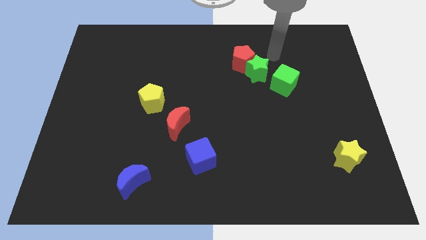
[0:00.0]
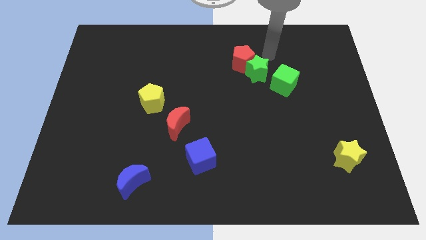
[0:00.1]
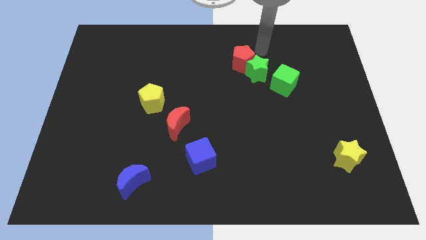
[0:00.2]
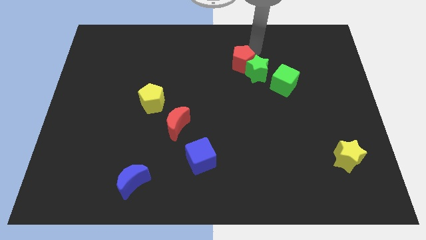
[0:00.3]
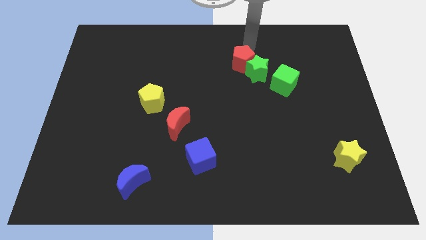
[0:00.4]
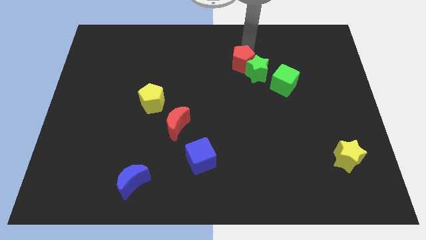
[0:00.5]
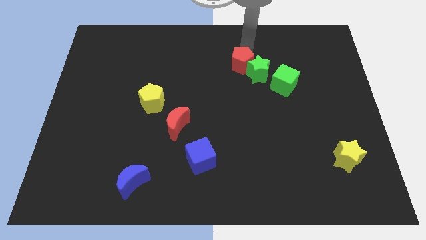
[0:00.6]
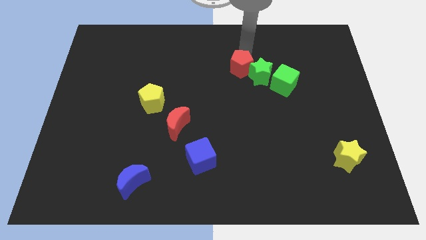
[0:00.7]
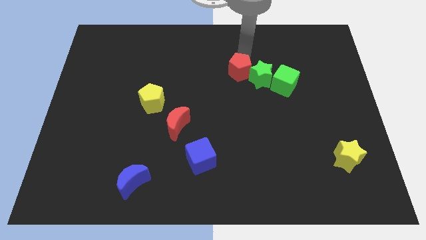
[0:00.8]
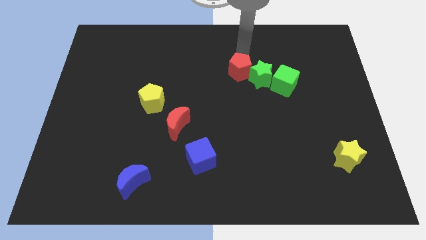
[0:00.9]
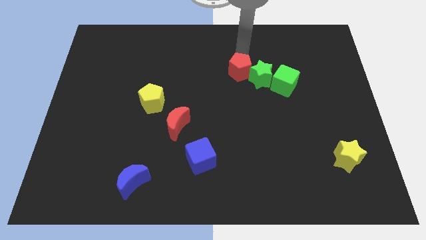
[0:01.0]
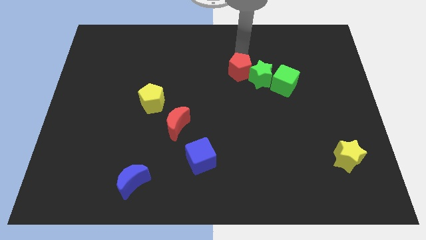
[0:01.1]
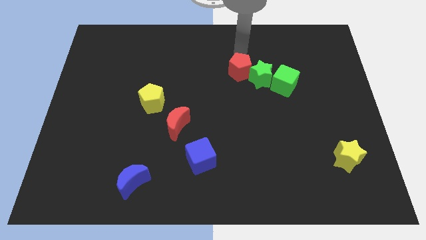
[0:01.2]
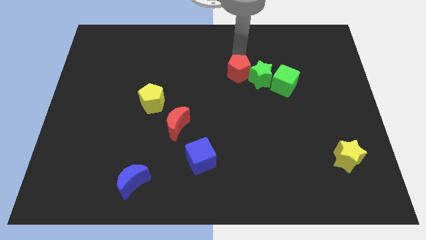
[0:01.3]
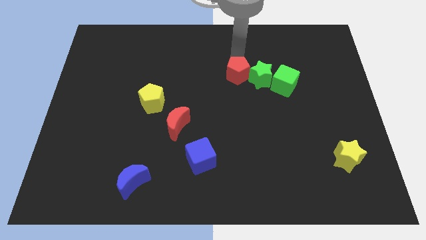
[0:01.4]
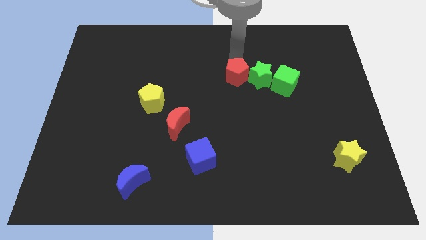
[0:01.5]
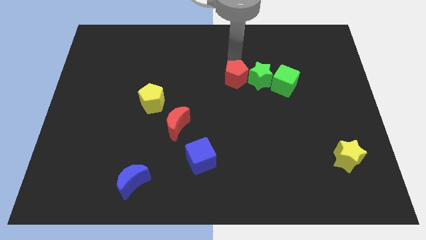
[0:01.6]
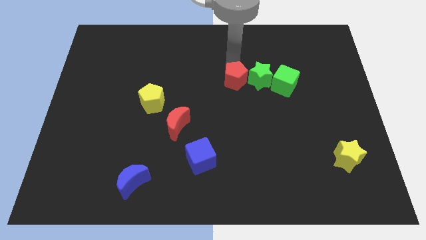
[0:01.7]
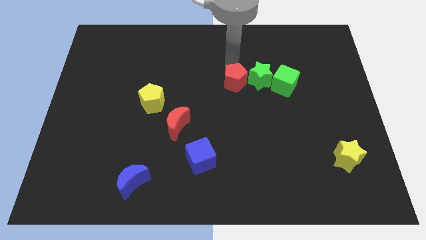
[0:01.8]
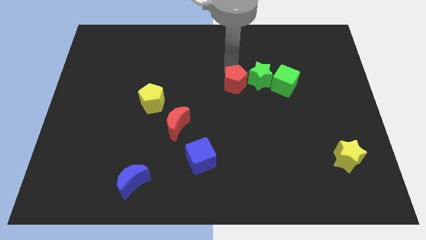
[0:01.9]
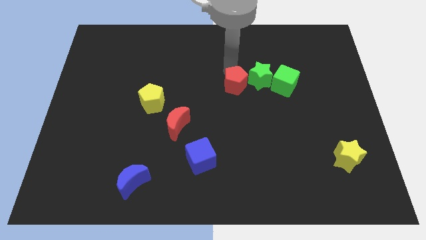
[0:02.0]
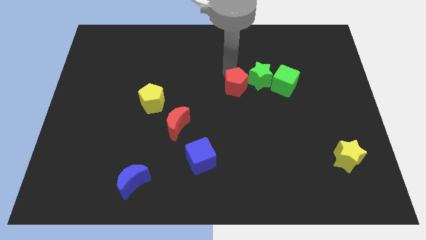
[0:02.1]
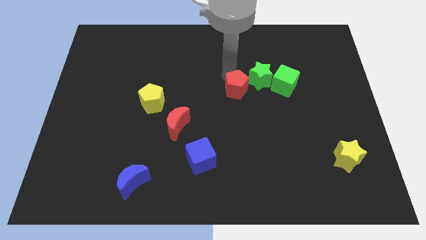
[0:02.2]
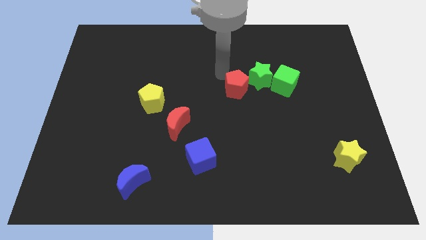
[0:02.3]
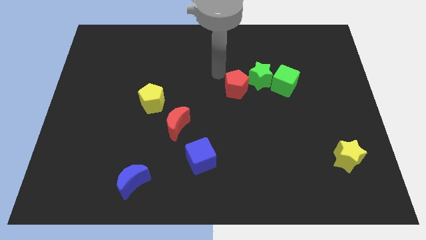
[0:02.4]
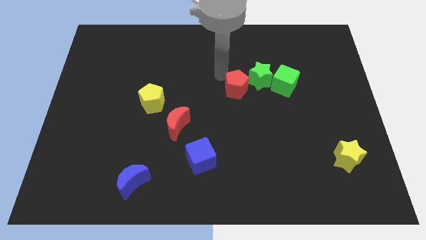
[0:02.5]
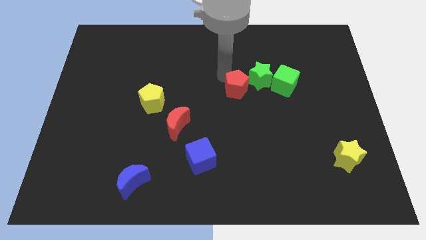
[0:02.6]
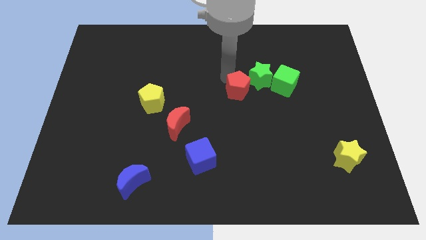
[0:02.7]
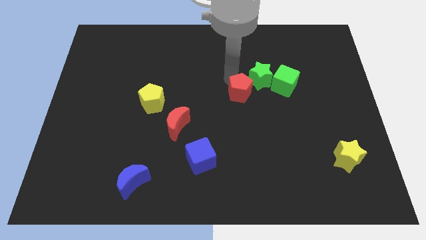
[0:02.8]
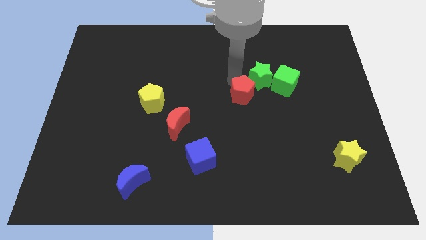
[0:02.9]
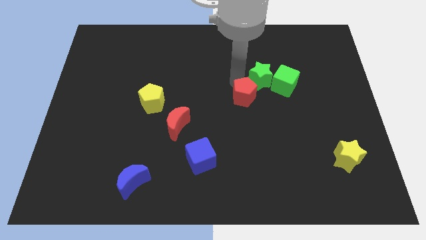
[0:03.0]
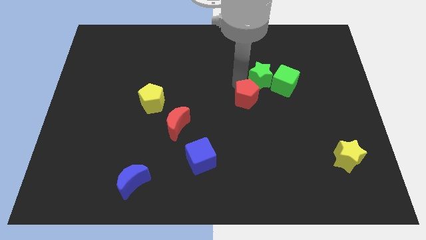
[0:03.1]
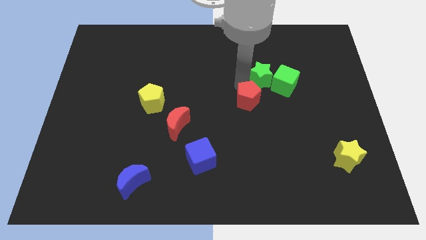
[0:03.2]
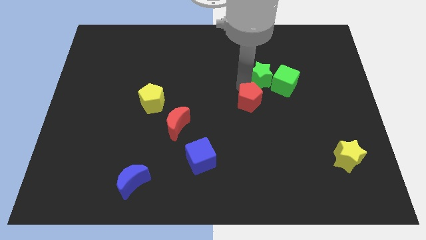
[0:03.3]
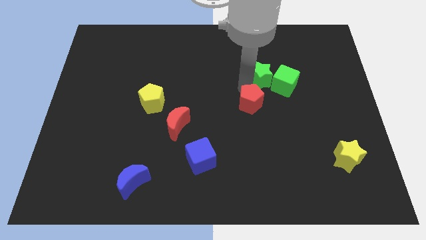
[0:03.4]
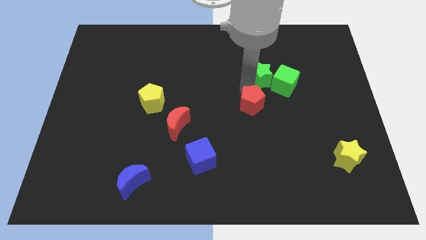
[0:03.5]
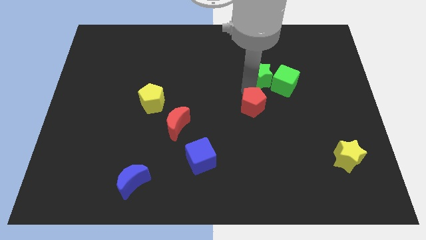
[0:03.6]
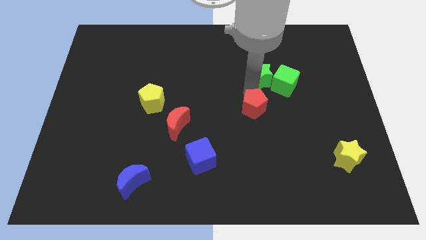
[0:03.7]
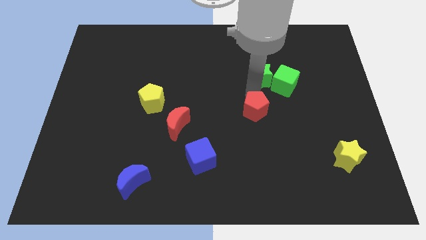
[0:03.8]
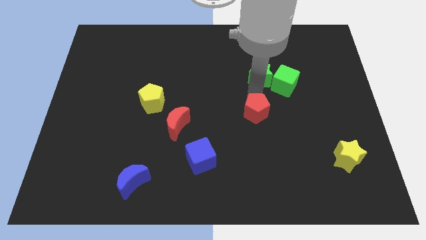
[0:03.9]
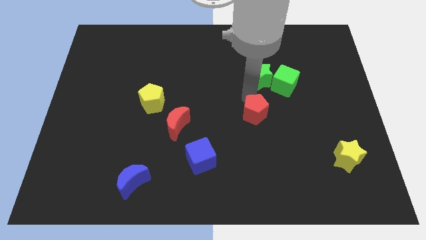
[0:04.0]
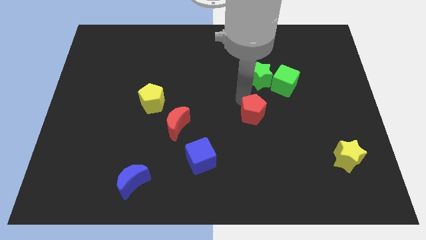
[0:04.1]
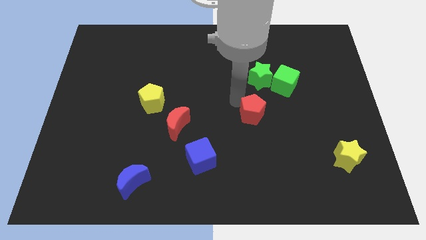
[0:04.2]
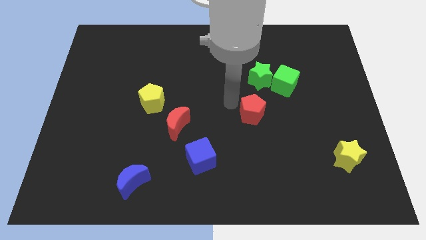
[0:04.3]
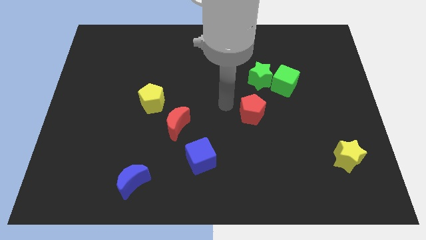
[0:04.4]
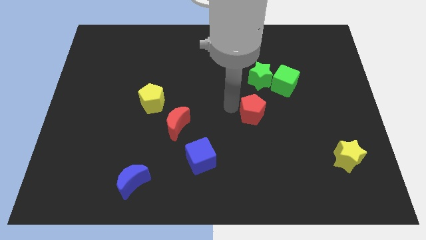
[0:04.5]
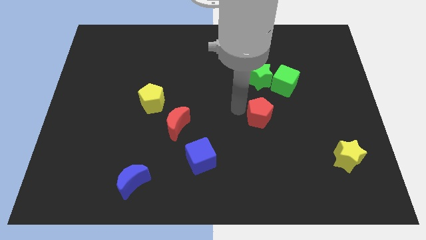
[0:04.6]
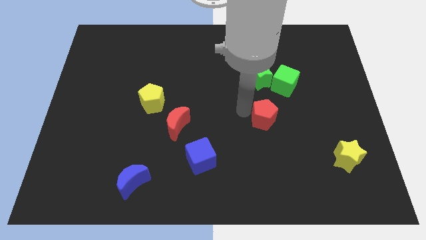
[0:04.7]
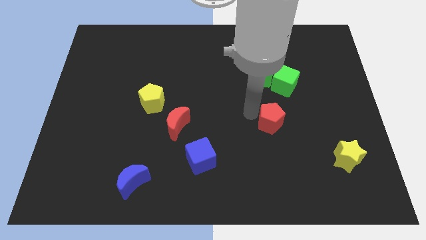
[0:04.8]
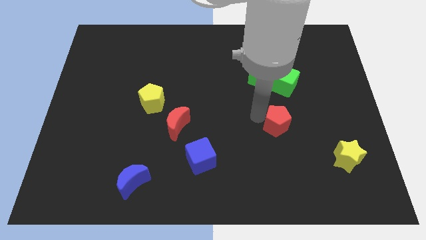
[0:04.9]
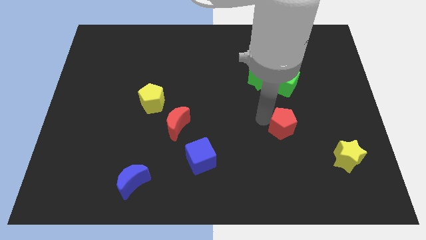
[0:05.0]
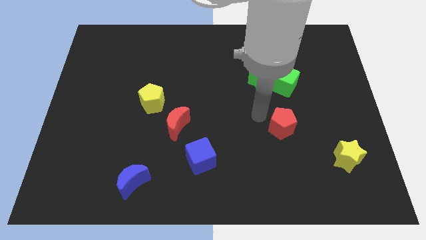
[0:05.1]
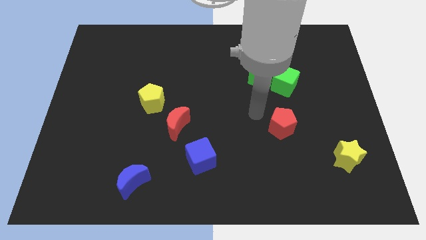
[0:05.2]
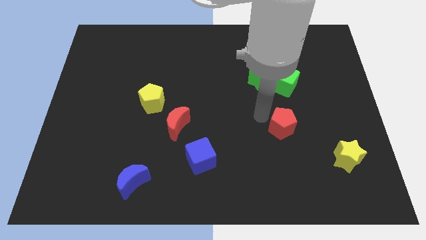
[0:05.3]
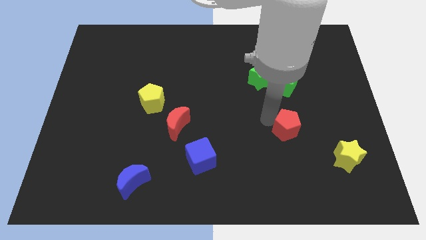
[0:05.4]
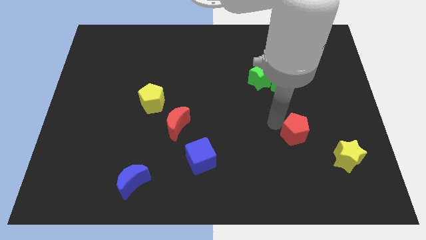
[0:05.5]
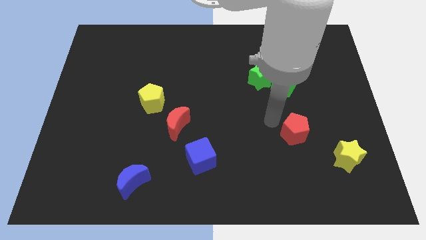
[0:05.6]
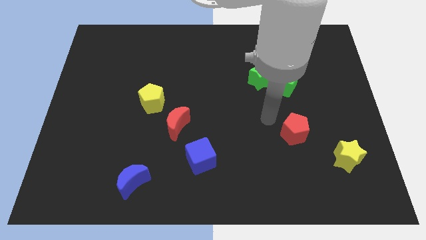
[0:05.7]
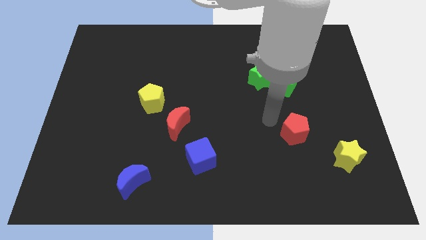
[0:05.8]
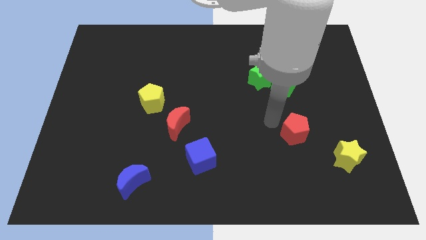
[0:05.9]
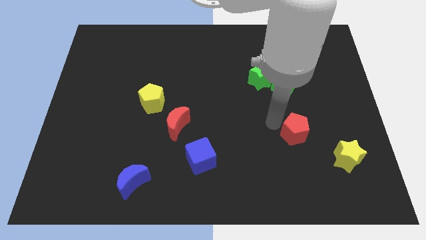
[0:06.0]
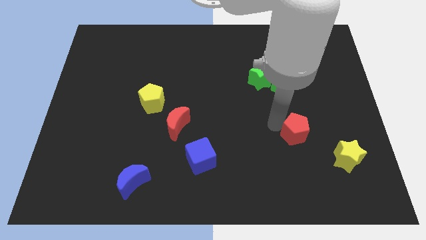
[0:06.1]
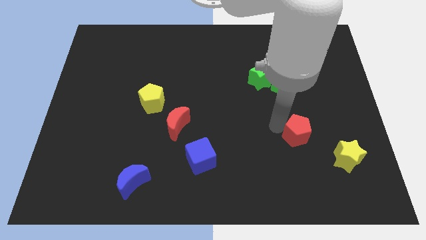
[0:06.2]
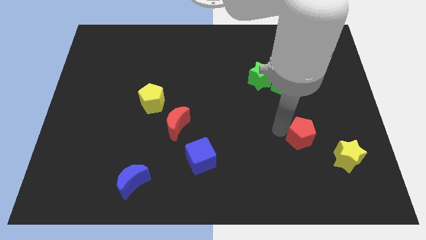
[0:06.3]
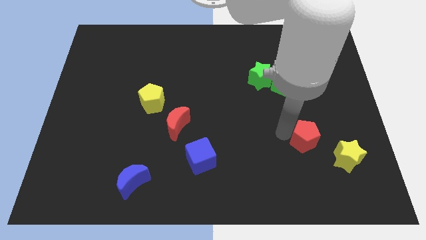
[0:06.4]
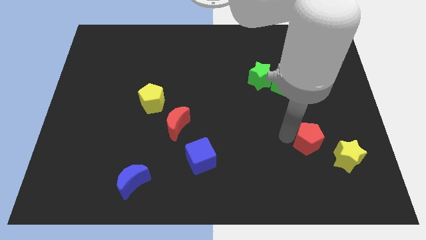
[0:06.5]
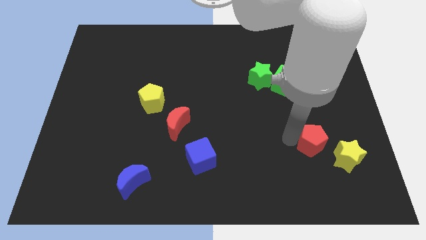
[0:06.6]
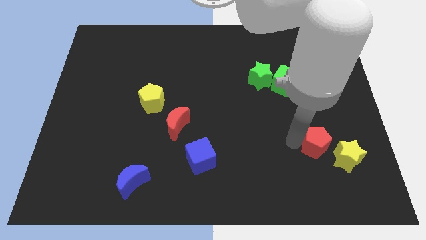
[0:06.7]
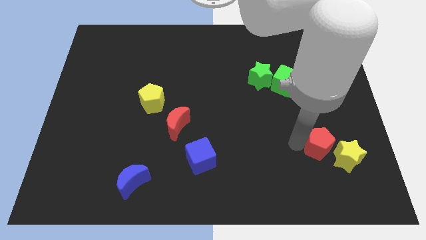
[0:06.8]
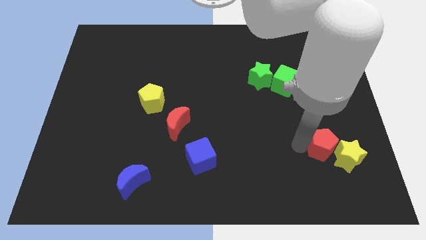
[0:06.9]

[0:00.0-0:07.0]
put the red pentagon close to the yellow star

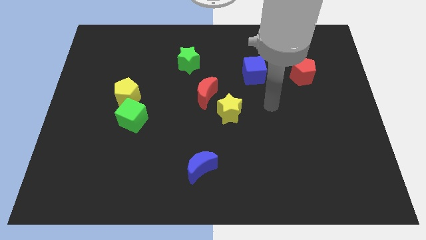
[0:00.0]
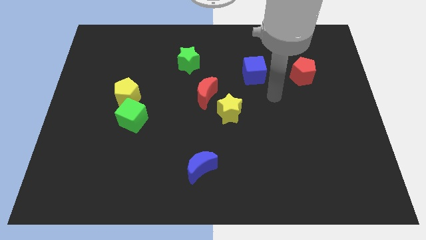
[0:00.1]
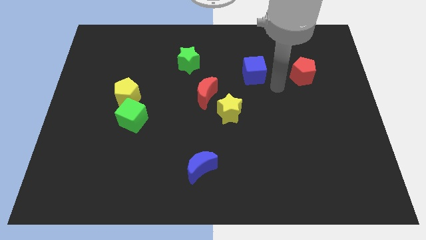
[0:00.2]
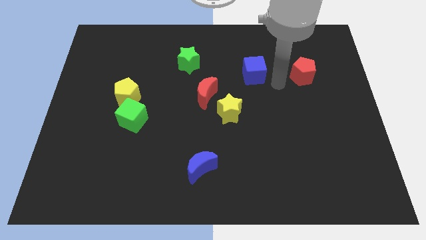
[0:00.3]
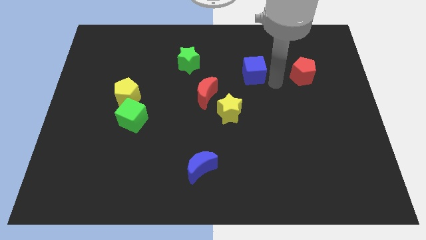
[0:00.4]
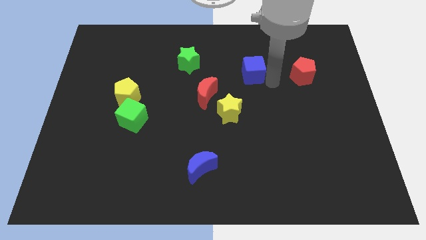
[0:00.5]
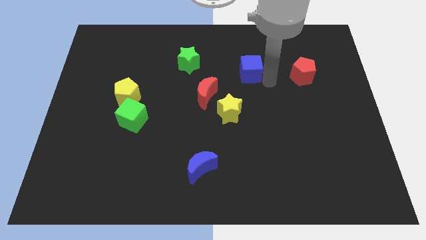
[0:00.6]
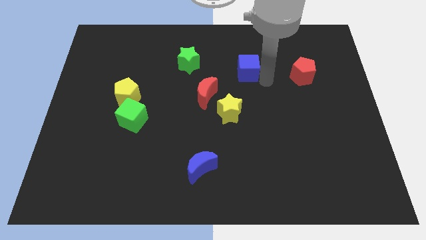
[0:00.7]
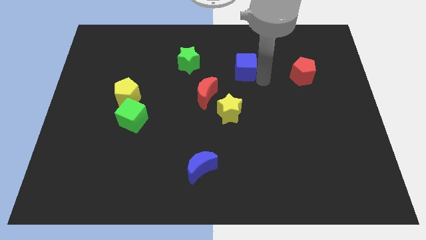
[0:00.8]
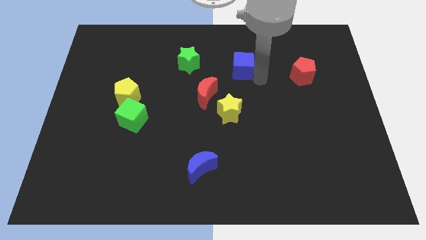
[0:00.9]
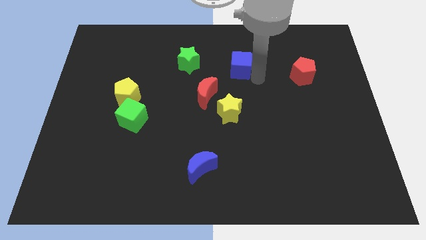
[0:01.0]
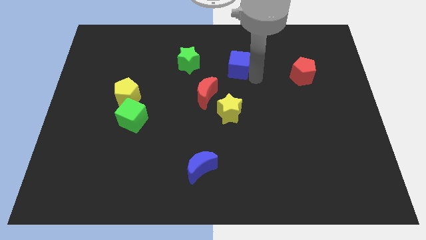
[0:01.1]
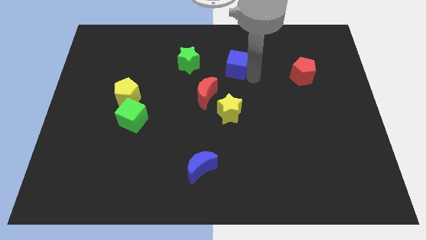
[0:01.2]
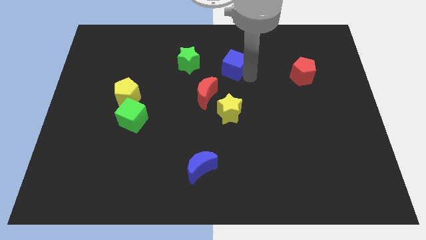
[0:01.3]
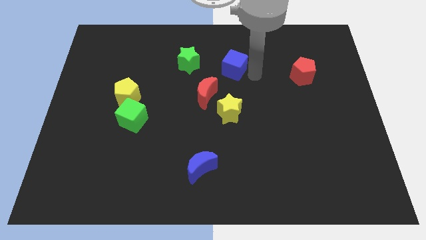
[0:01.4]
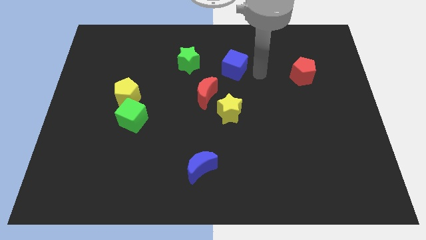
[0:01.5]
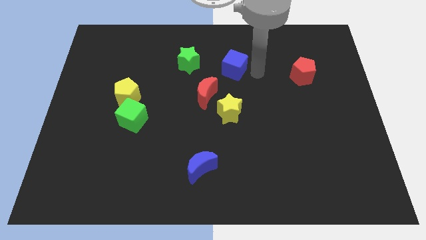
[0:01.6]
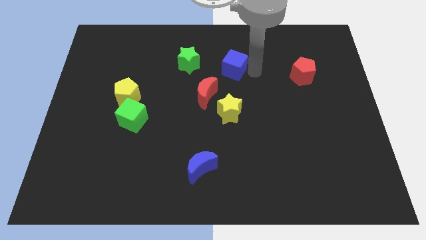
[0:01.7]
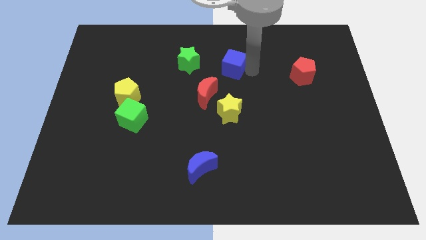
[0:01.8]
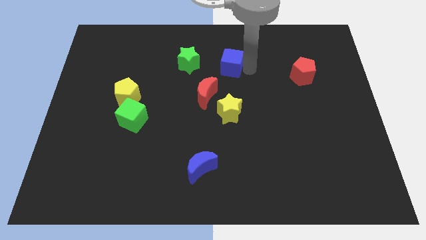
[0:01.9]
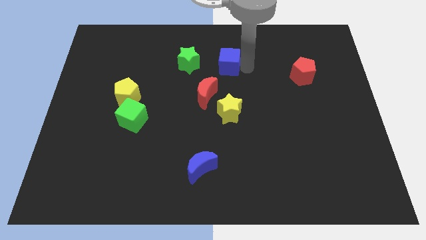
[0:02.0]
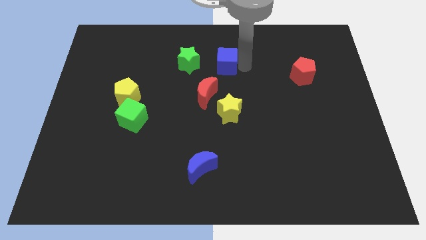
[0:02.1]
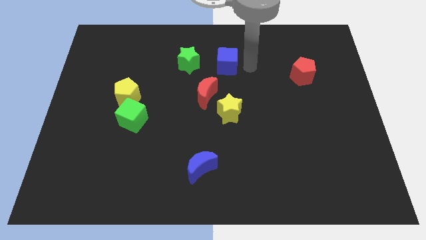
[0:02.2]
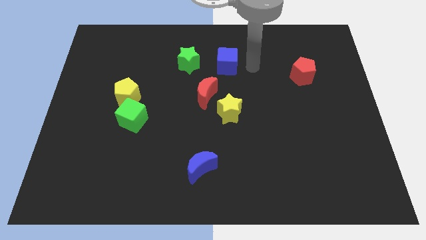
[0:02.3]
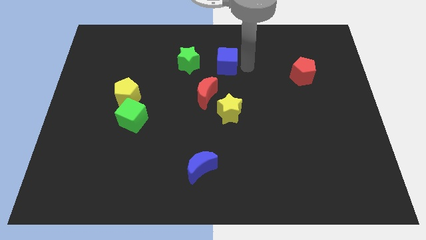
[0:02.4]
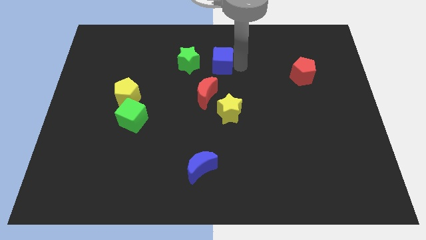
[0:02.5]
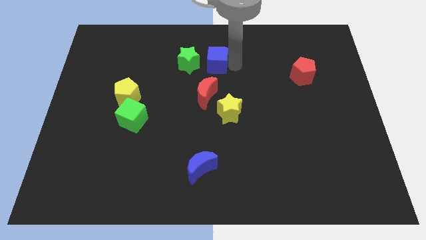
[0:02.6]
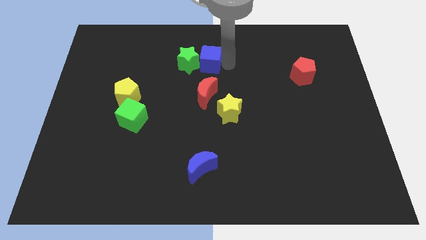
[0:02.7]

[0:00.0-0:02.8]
push the blue cube to the green star
